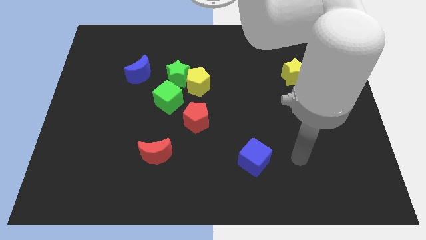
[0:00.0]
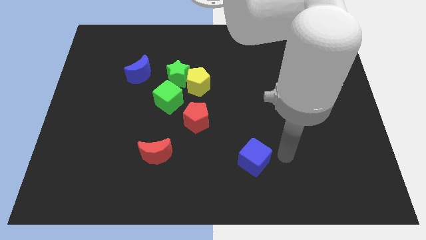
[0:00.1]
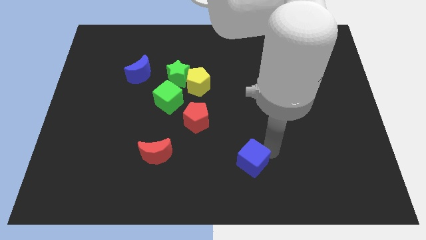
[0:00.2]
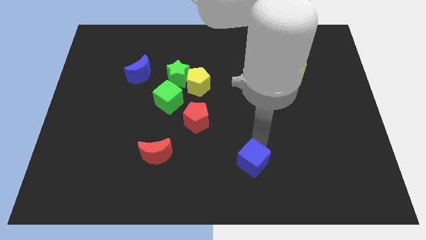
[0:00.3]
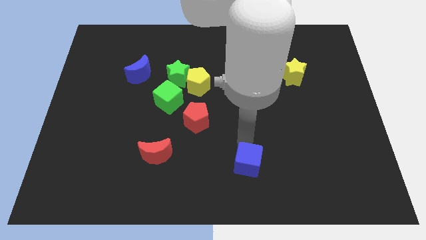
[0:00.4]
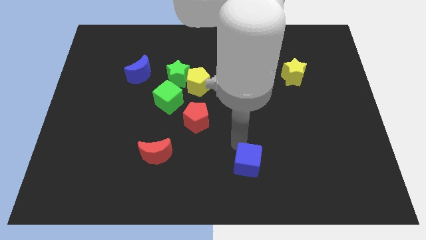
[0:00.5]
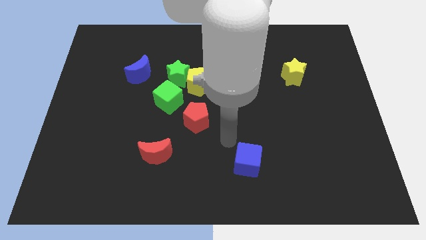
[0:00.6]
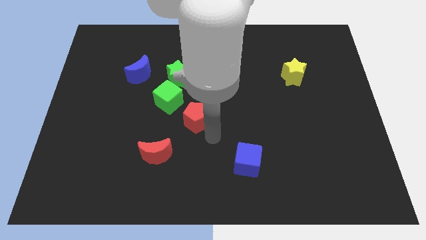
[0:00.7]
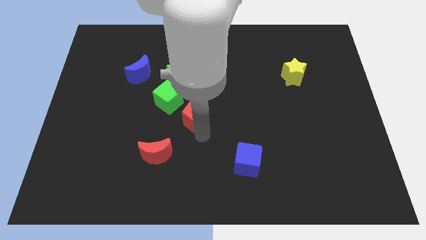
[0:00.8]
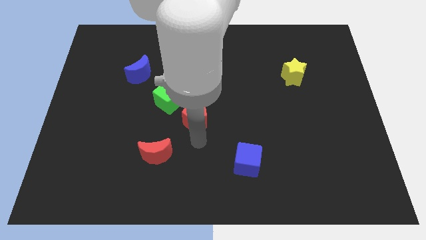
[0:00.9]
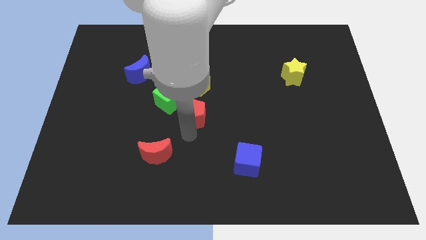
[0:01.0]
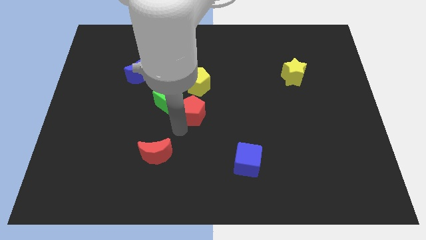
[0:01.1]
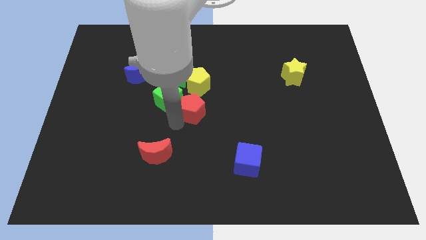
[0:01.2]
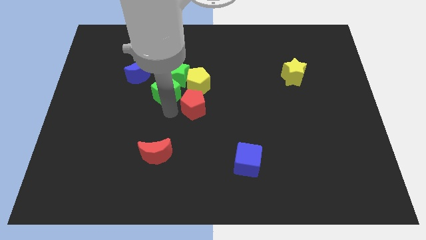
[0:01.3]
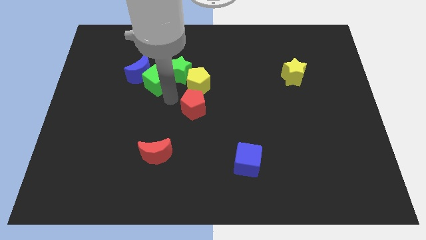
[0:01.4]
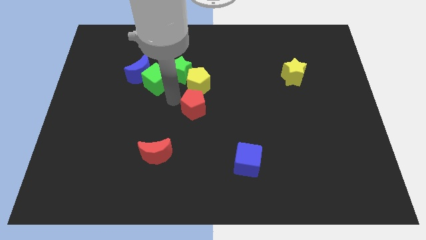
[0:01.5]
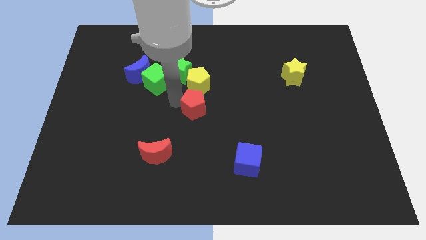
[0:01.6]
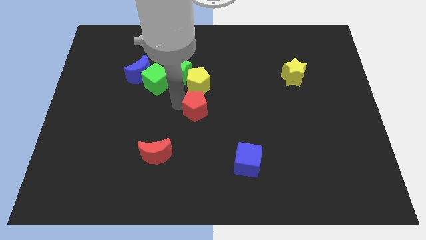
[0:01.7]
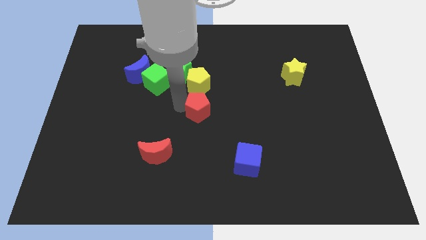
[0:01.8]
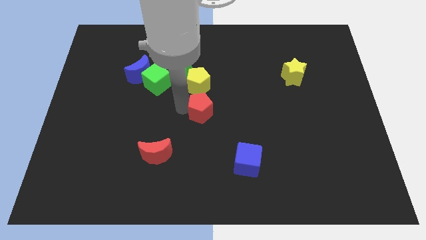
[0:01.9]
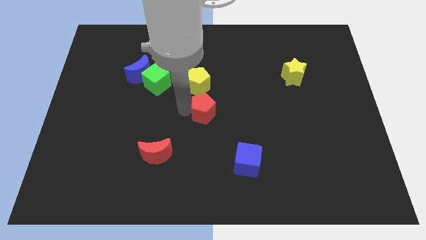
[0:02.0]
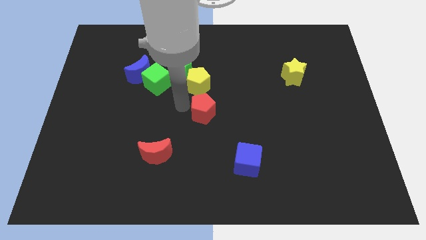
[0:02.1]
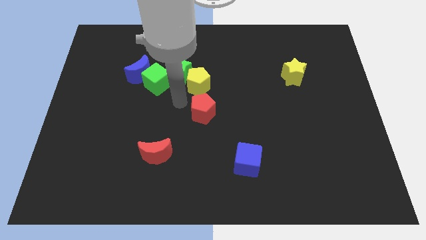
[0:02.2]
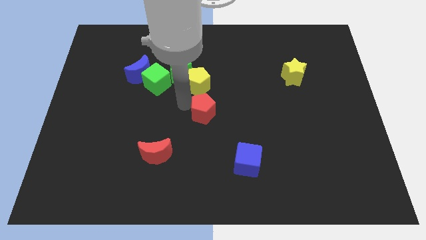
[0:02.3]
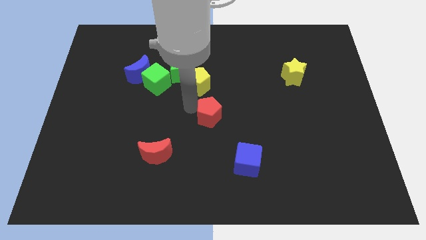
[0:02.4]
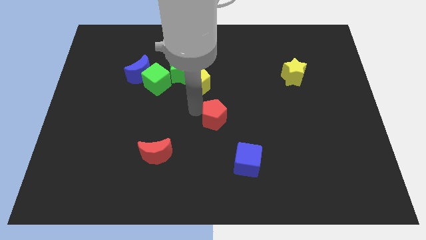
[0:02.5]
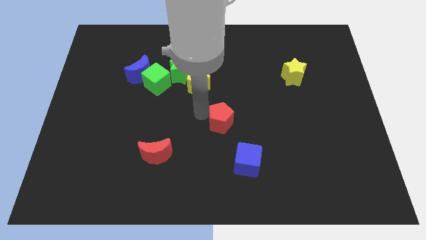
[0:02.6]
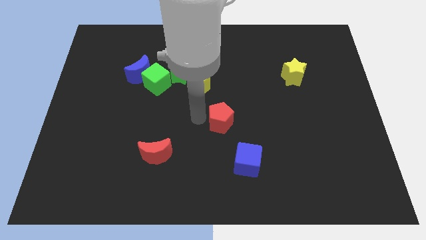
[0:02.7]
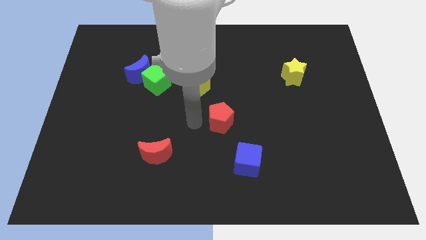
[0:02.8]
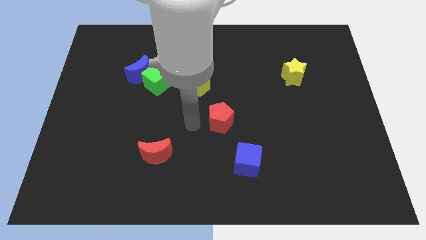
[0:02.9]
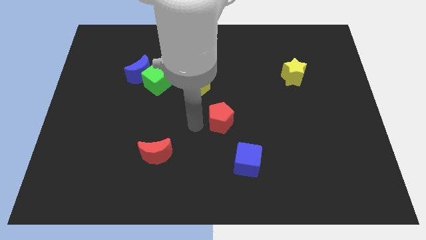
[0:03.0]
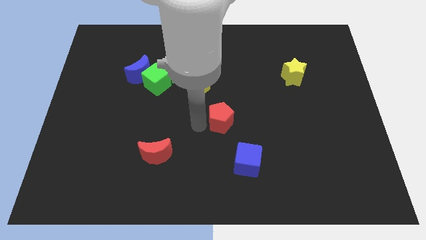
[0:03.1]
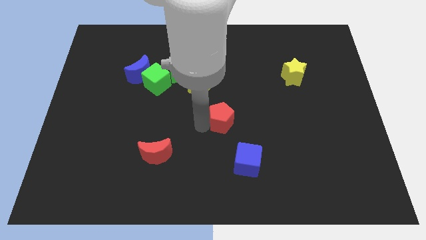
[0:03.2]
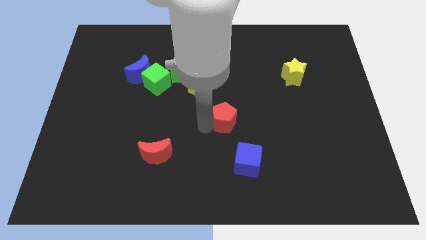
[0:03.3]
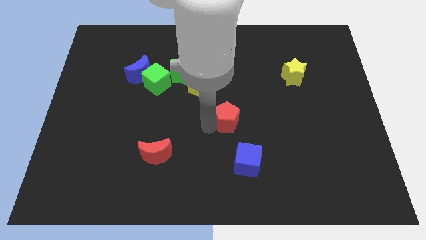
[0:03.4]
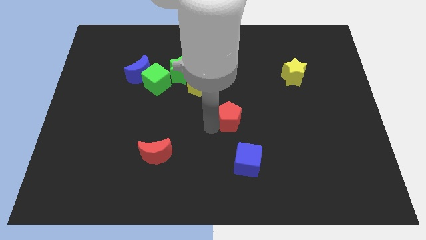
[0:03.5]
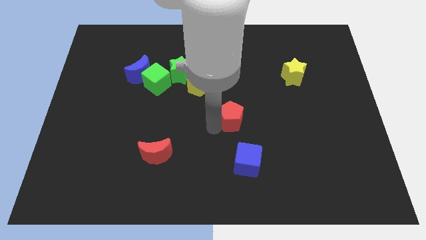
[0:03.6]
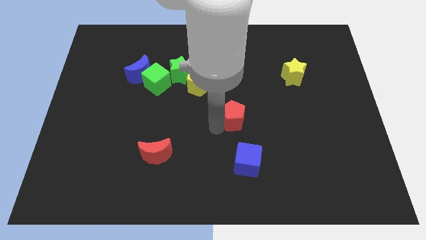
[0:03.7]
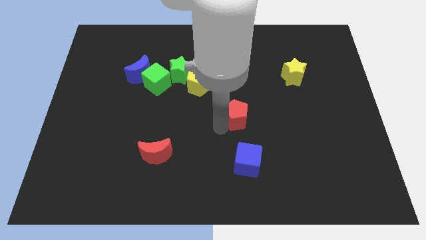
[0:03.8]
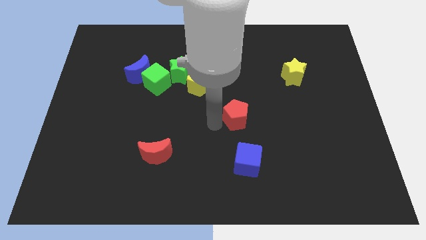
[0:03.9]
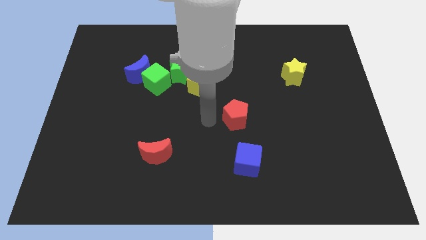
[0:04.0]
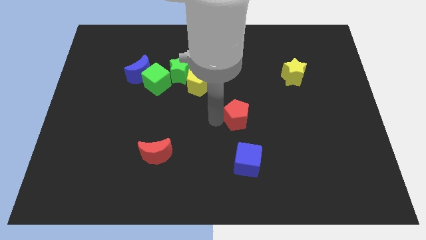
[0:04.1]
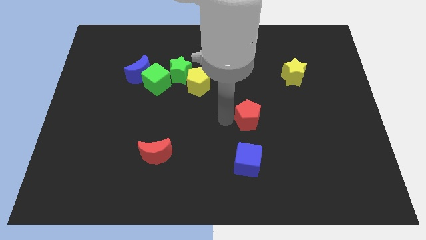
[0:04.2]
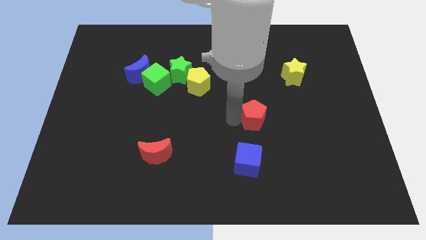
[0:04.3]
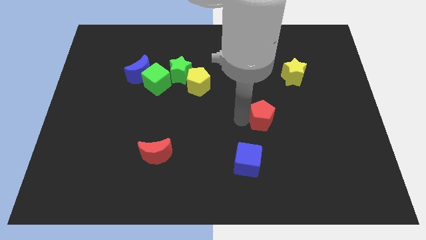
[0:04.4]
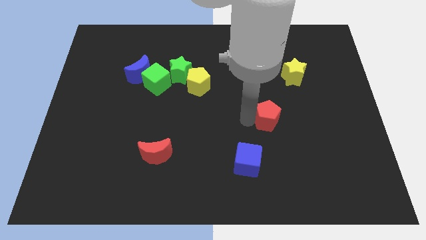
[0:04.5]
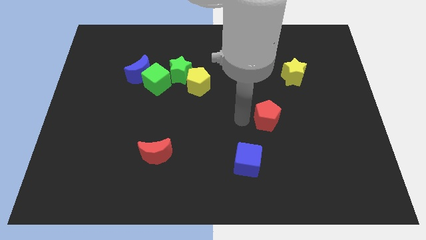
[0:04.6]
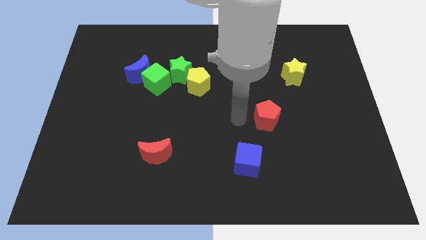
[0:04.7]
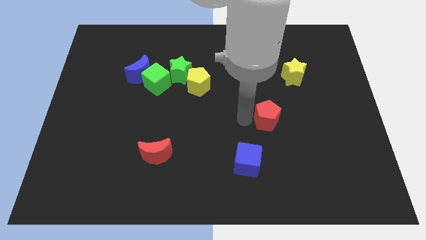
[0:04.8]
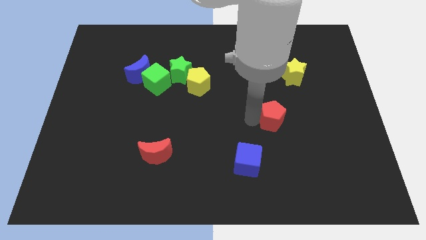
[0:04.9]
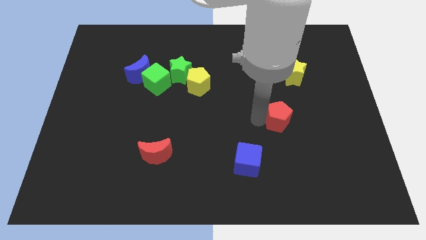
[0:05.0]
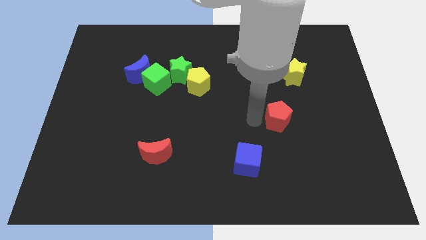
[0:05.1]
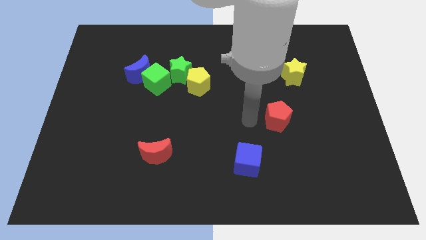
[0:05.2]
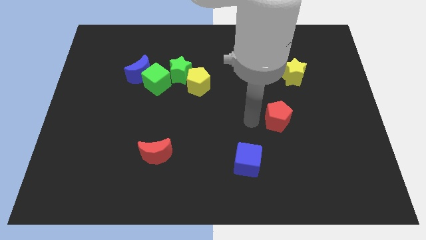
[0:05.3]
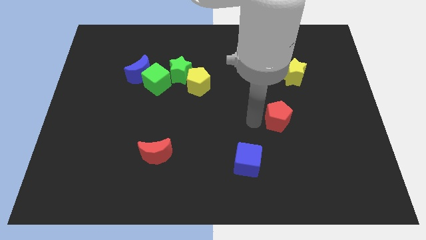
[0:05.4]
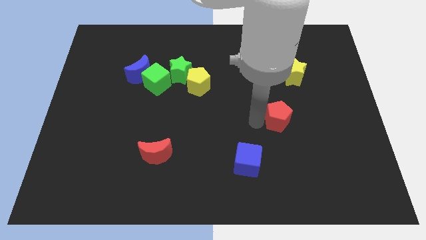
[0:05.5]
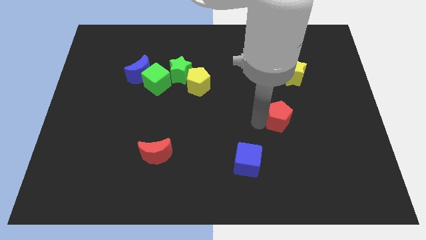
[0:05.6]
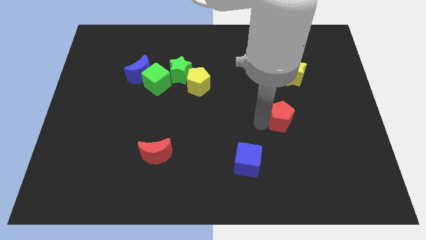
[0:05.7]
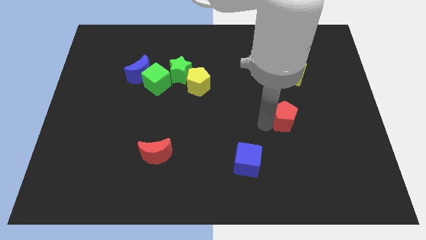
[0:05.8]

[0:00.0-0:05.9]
push the red pentagon right

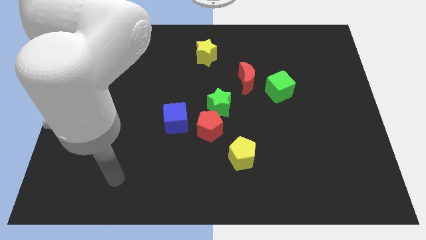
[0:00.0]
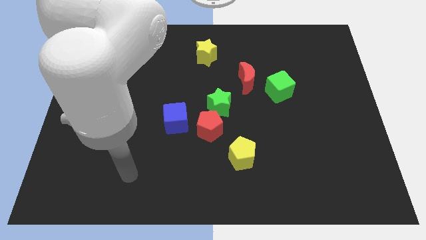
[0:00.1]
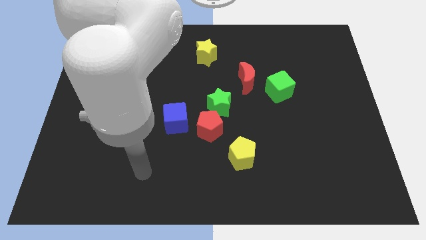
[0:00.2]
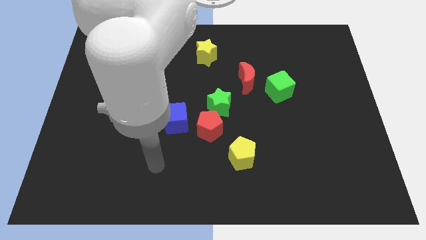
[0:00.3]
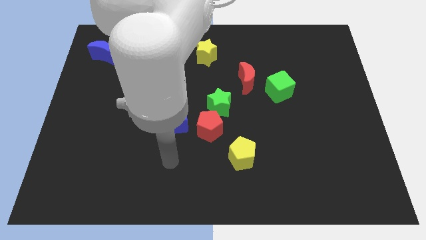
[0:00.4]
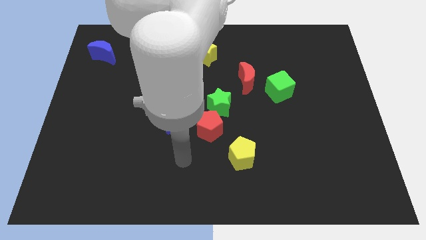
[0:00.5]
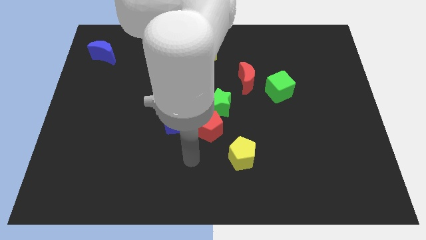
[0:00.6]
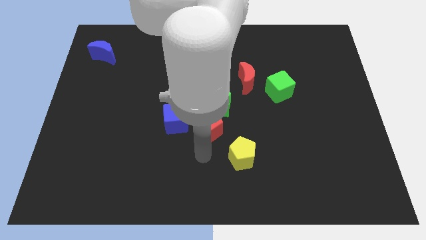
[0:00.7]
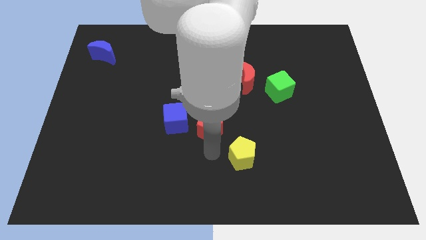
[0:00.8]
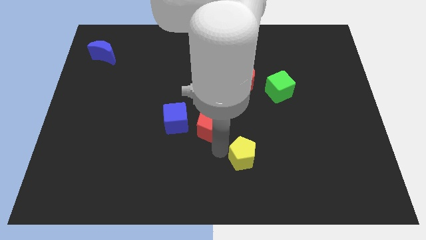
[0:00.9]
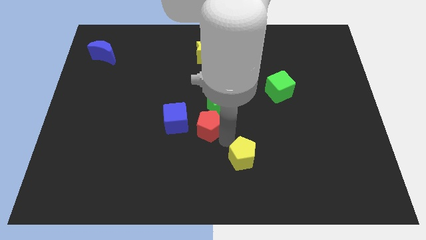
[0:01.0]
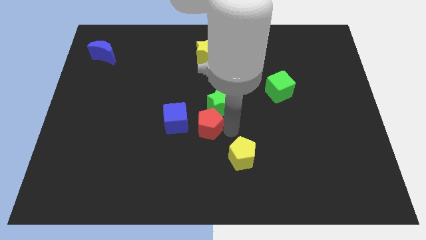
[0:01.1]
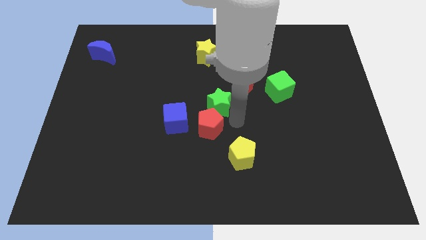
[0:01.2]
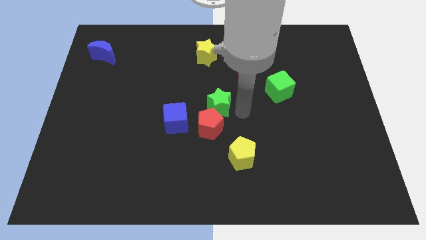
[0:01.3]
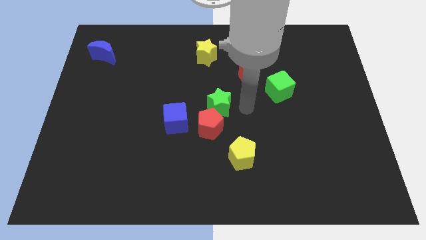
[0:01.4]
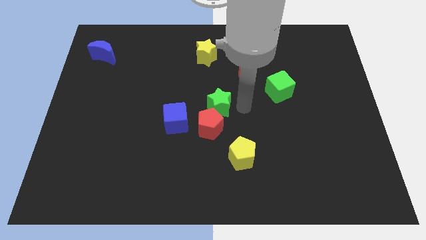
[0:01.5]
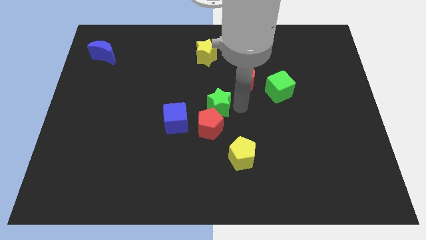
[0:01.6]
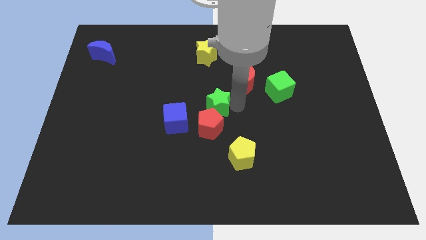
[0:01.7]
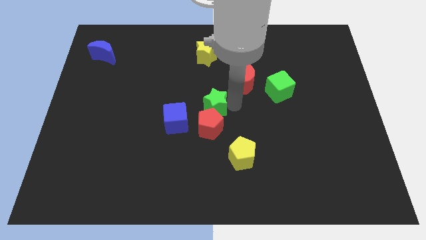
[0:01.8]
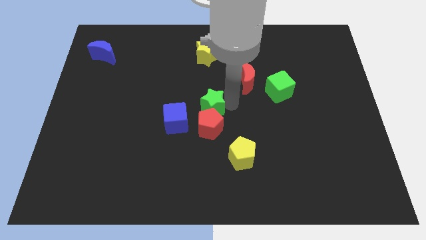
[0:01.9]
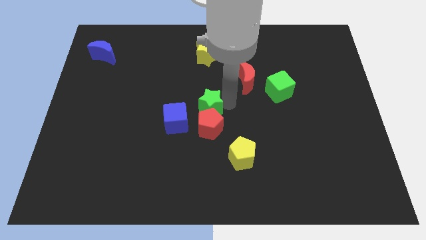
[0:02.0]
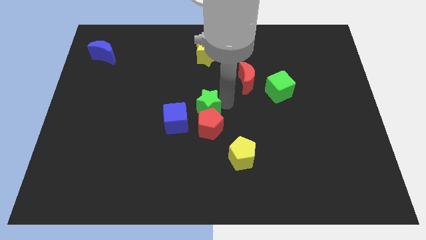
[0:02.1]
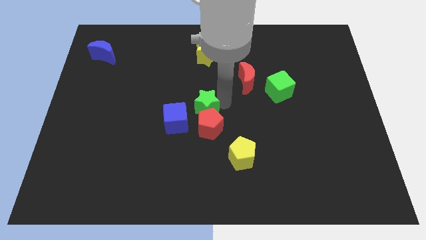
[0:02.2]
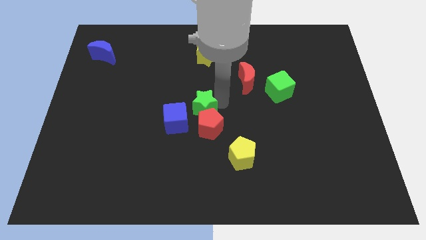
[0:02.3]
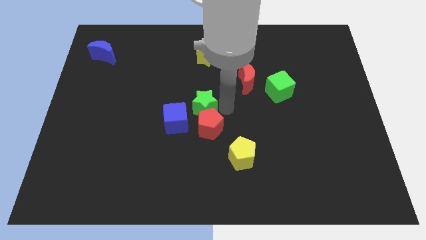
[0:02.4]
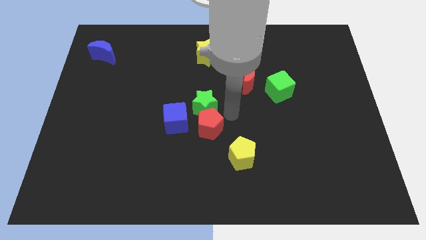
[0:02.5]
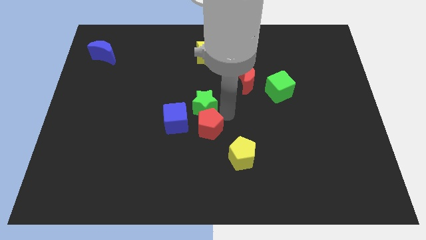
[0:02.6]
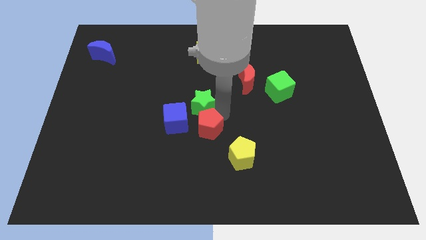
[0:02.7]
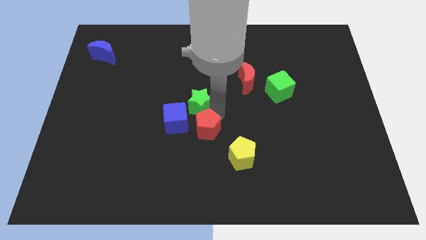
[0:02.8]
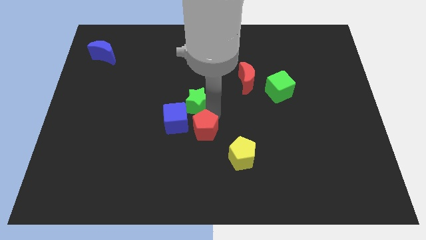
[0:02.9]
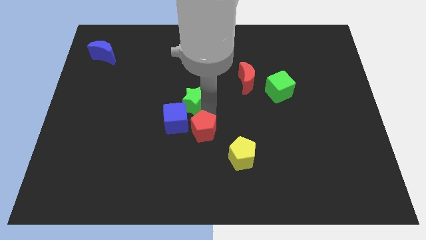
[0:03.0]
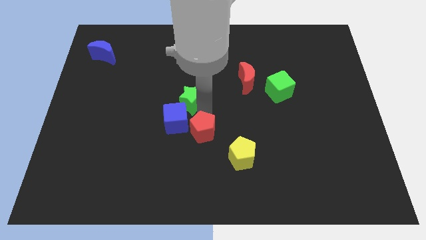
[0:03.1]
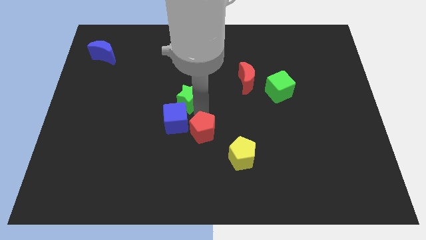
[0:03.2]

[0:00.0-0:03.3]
push the green star left slightly
